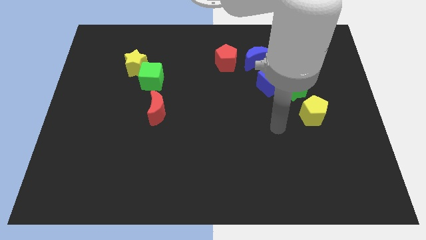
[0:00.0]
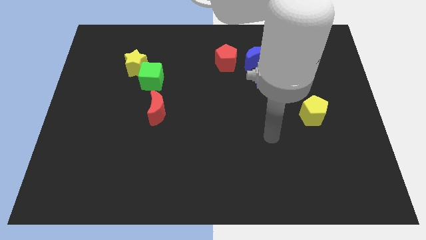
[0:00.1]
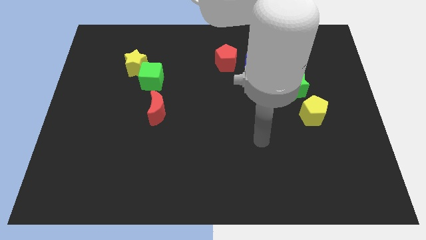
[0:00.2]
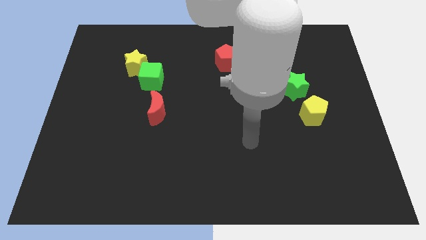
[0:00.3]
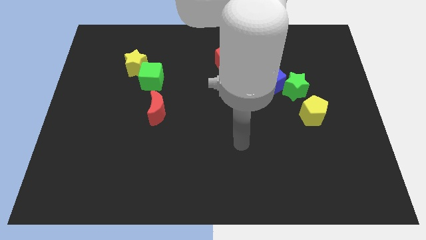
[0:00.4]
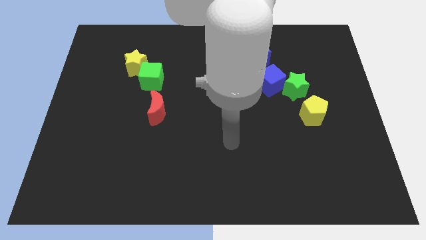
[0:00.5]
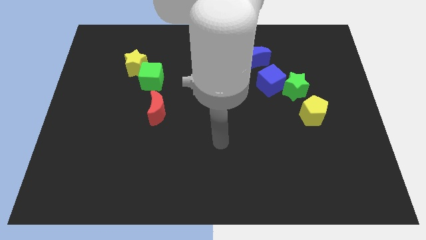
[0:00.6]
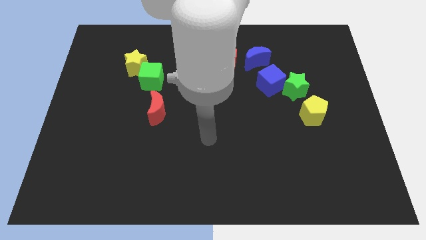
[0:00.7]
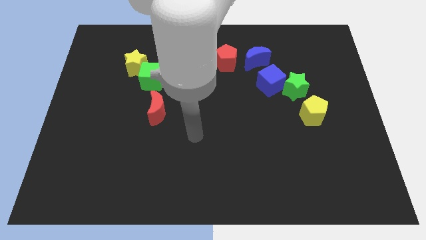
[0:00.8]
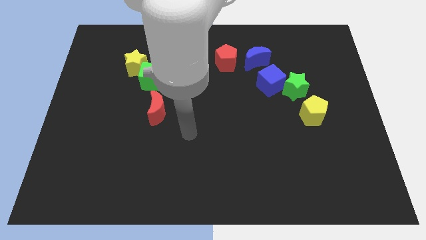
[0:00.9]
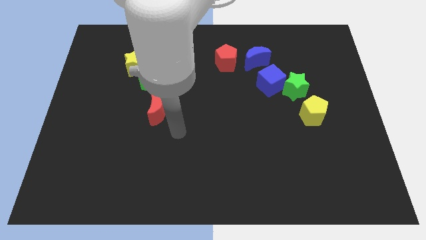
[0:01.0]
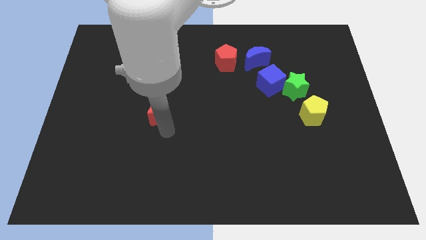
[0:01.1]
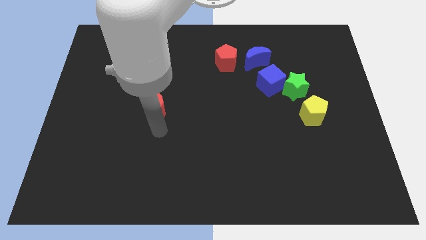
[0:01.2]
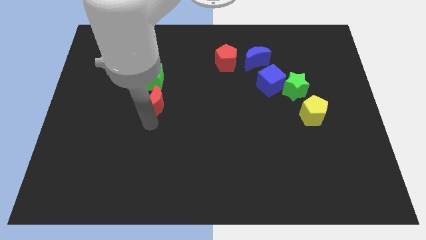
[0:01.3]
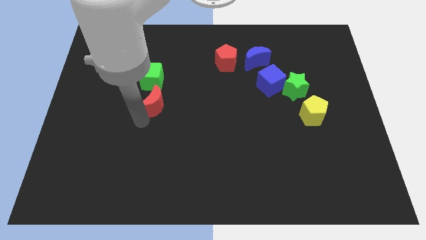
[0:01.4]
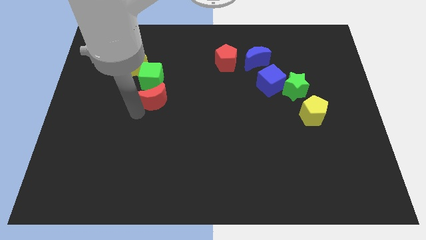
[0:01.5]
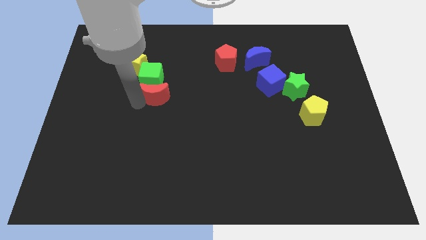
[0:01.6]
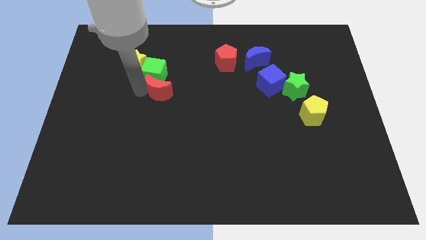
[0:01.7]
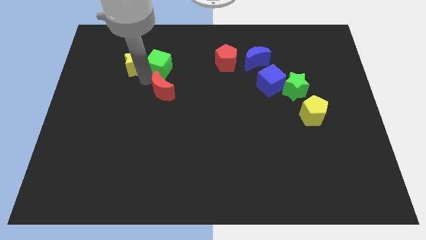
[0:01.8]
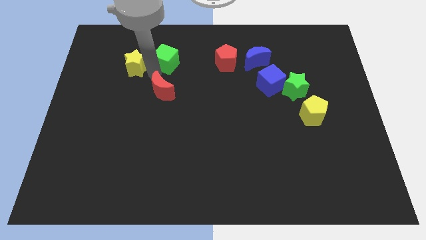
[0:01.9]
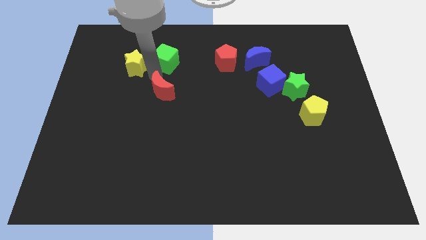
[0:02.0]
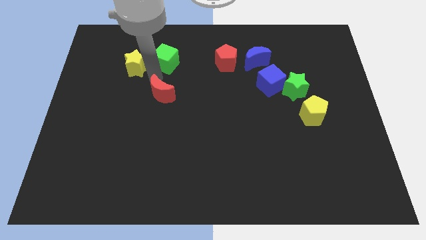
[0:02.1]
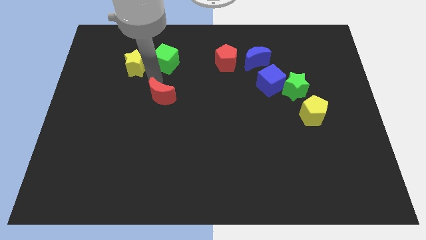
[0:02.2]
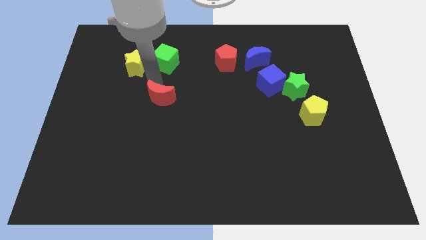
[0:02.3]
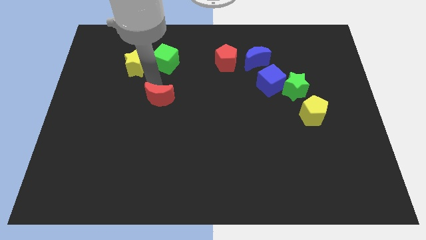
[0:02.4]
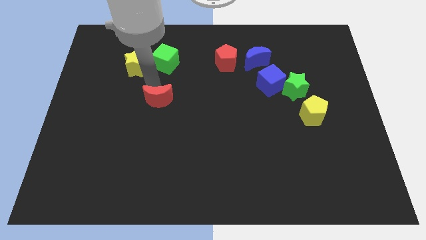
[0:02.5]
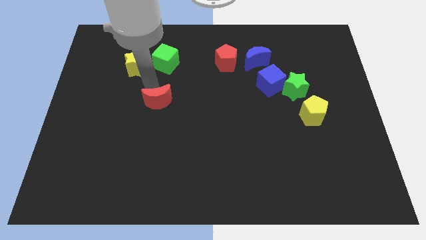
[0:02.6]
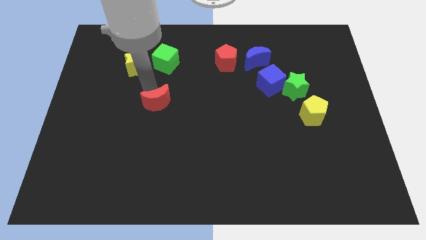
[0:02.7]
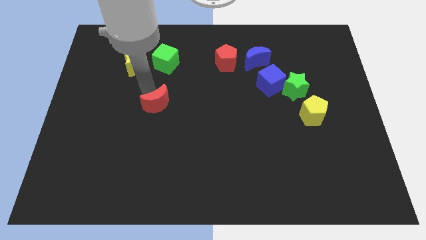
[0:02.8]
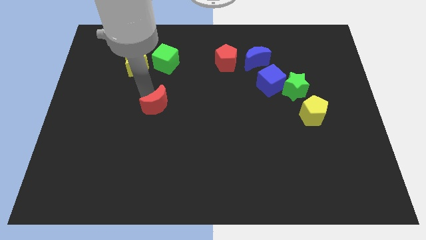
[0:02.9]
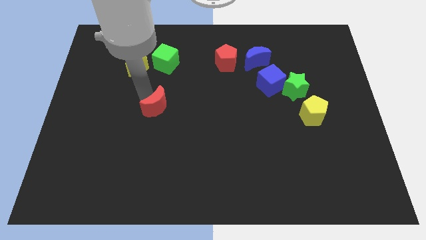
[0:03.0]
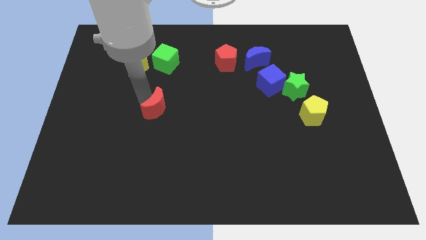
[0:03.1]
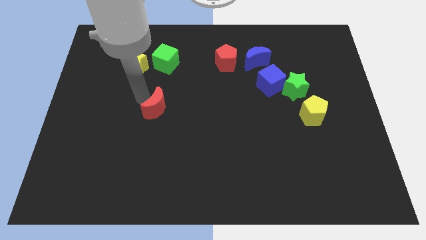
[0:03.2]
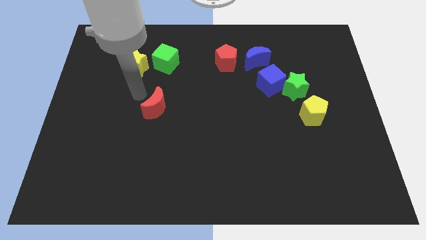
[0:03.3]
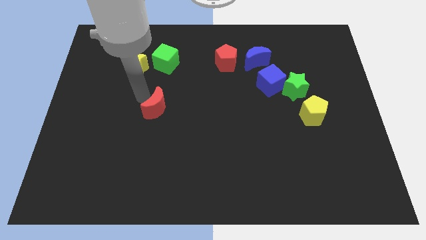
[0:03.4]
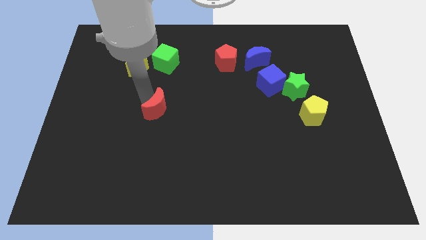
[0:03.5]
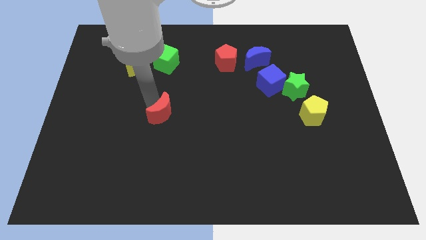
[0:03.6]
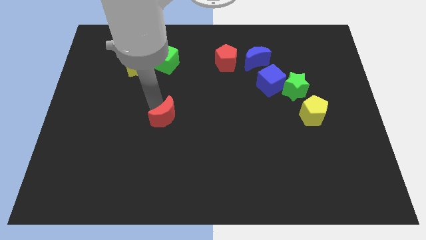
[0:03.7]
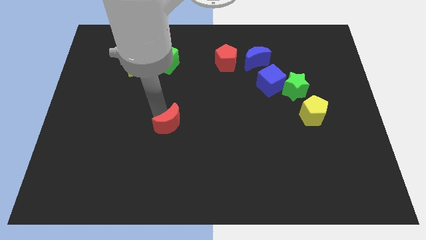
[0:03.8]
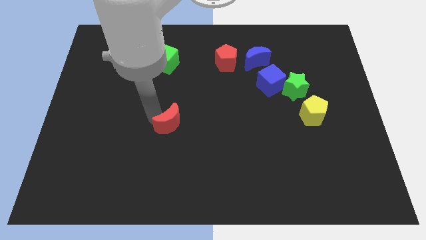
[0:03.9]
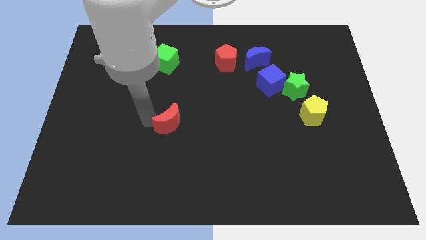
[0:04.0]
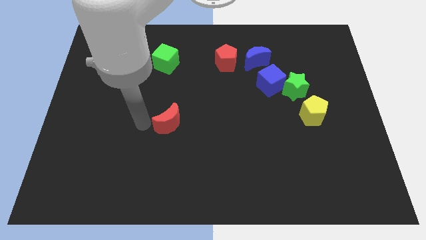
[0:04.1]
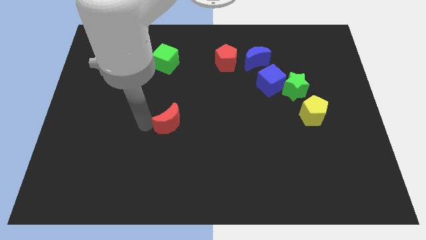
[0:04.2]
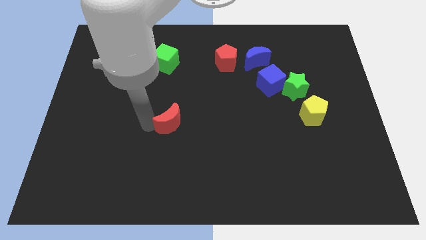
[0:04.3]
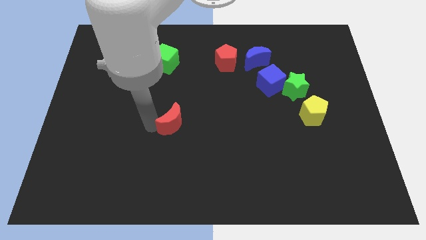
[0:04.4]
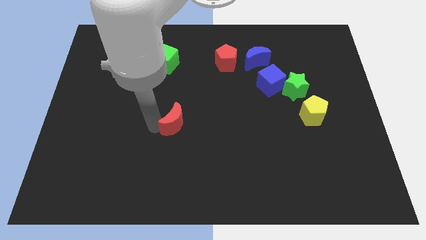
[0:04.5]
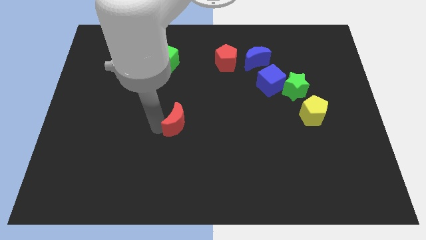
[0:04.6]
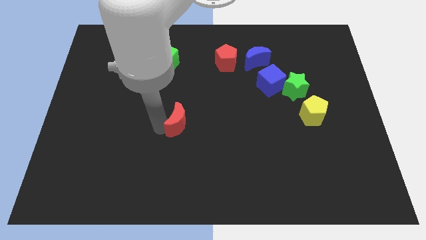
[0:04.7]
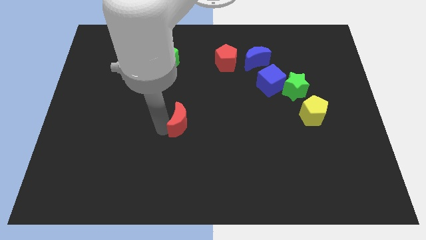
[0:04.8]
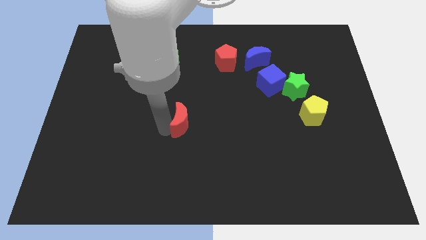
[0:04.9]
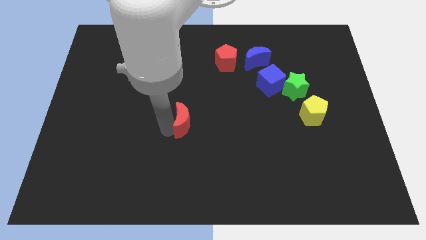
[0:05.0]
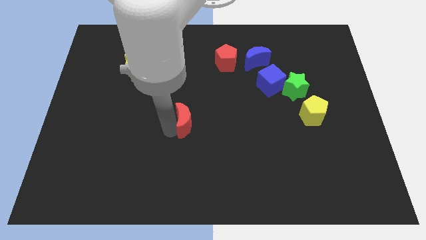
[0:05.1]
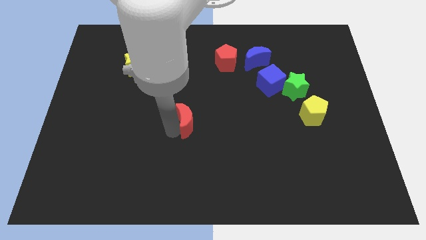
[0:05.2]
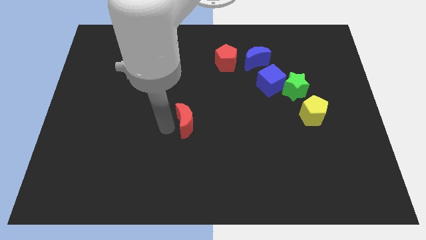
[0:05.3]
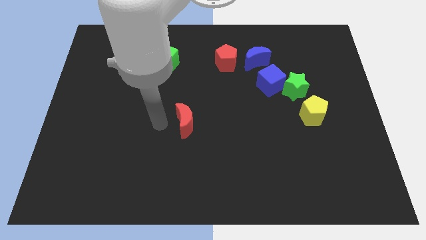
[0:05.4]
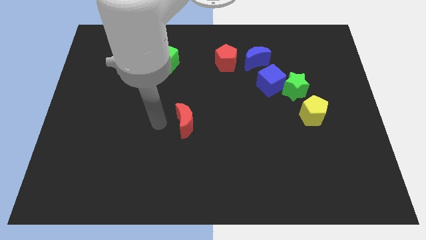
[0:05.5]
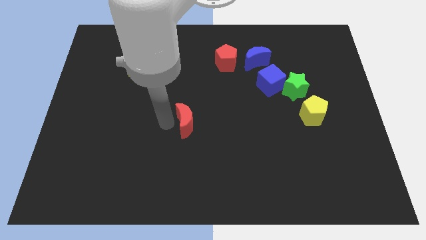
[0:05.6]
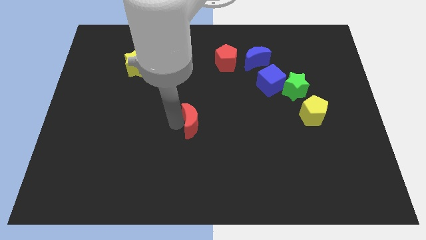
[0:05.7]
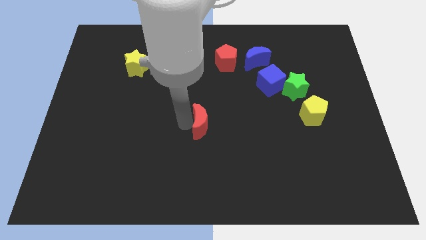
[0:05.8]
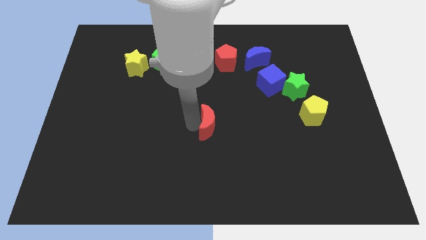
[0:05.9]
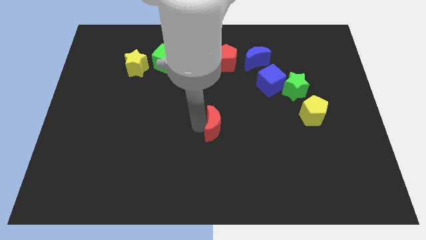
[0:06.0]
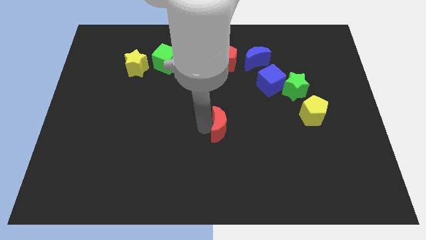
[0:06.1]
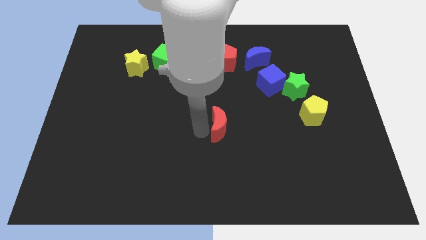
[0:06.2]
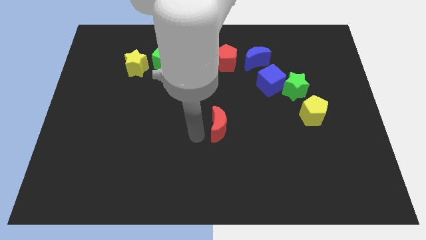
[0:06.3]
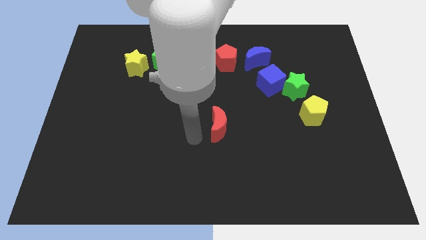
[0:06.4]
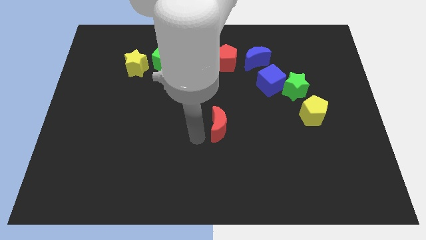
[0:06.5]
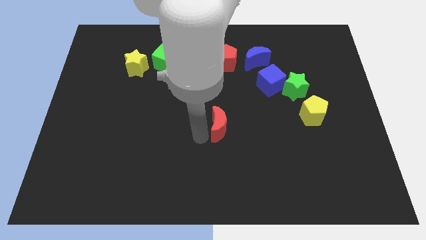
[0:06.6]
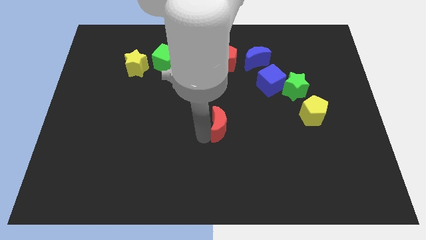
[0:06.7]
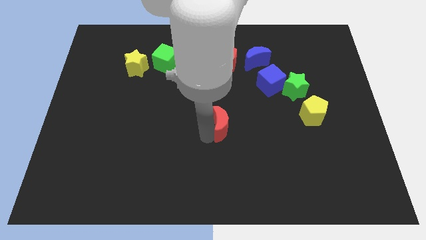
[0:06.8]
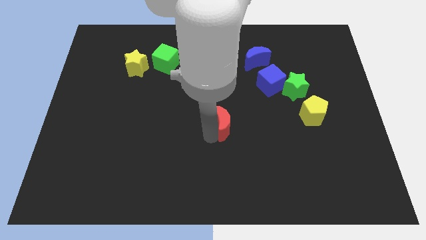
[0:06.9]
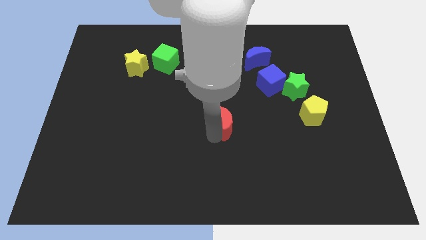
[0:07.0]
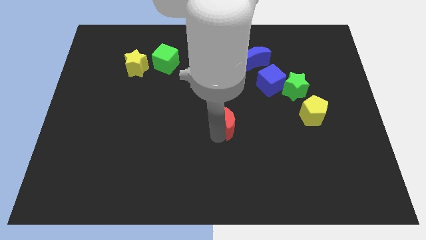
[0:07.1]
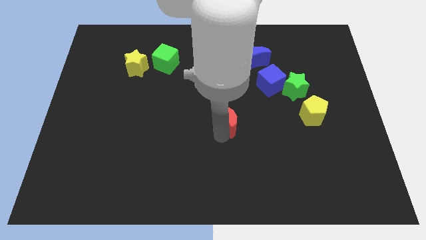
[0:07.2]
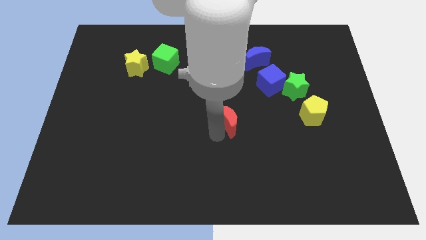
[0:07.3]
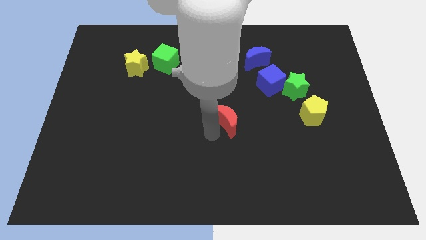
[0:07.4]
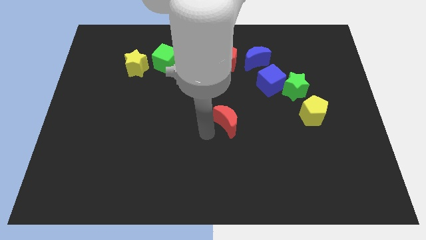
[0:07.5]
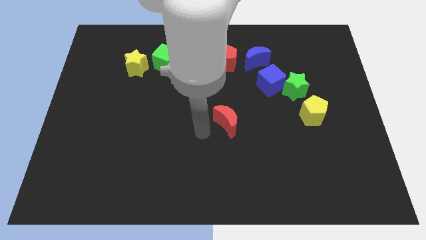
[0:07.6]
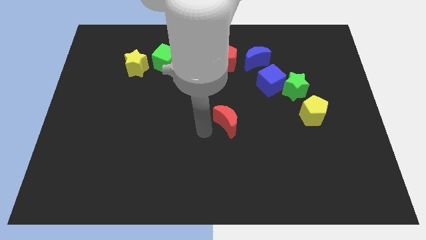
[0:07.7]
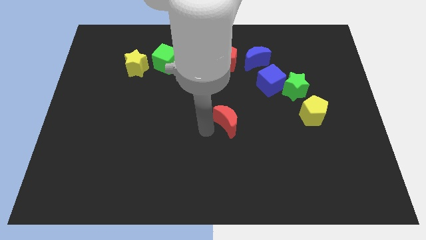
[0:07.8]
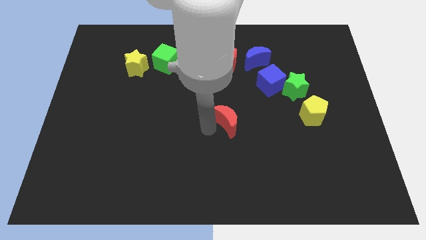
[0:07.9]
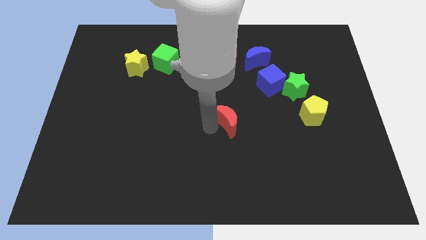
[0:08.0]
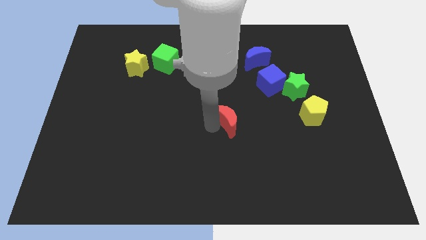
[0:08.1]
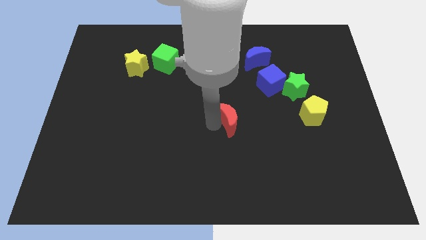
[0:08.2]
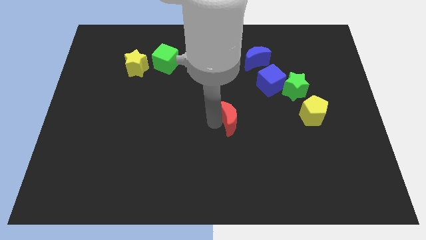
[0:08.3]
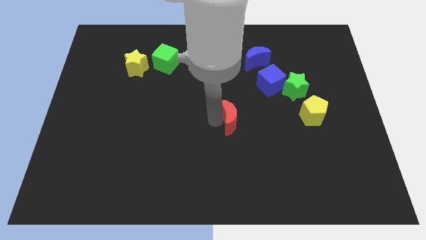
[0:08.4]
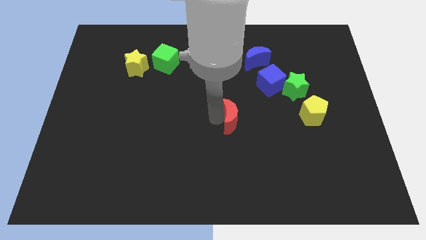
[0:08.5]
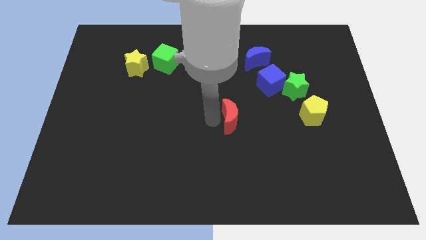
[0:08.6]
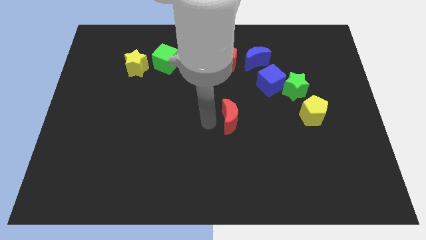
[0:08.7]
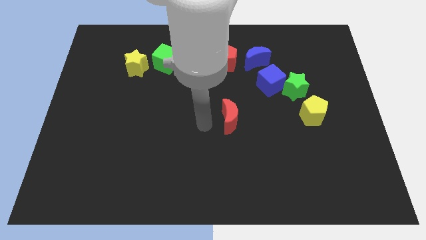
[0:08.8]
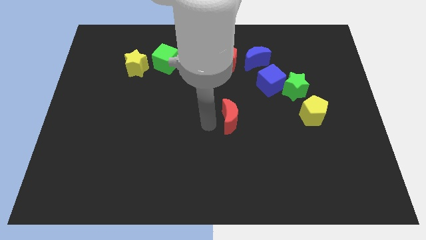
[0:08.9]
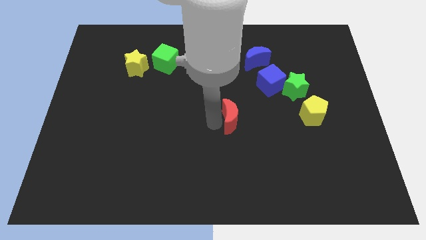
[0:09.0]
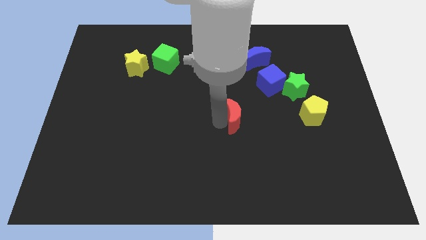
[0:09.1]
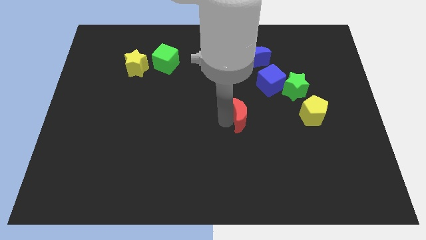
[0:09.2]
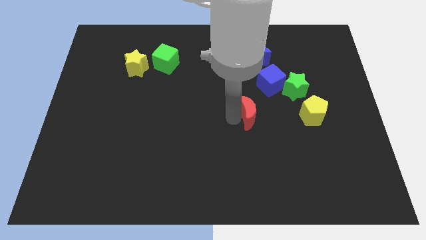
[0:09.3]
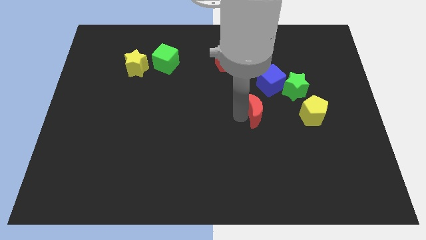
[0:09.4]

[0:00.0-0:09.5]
push the red moon to the bottom side of the blue cube
